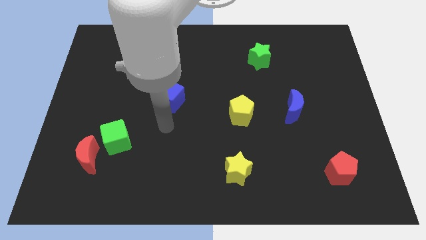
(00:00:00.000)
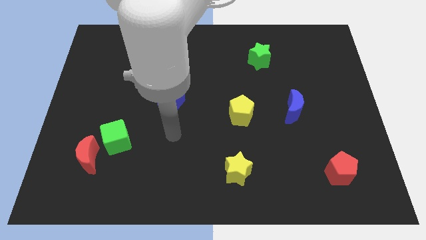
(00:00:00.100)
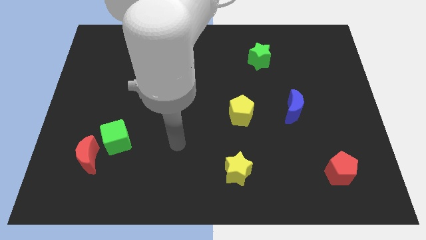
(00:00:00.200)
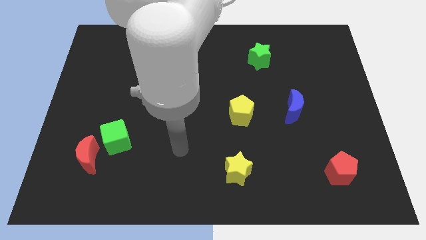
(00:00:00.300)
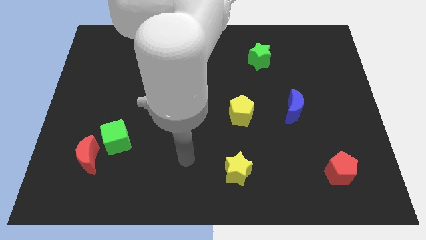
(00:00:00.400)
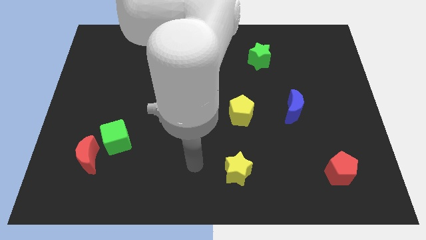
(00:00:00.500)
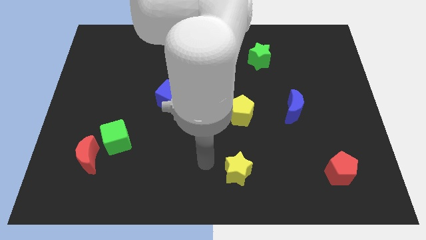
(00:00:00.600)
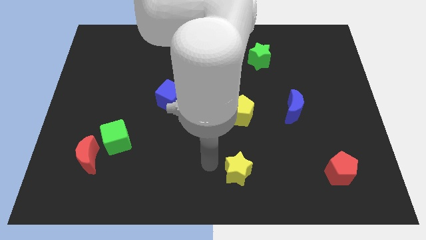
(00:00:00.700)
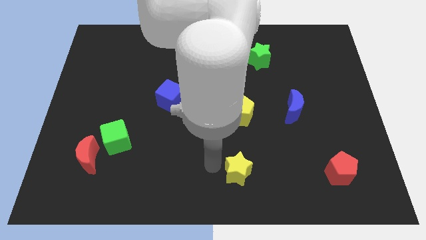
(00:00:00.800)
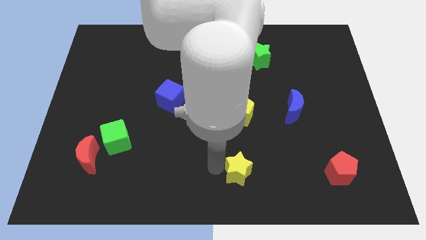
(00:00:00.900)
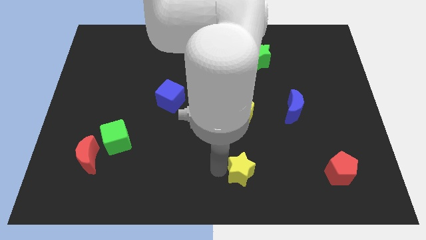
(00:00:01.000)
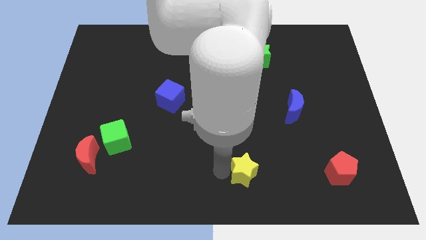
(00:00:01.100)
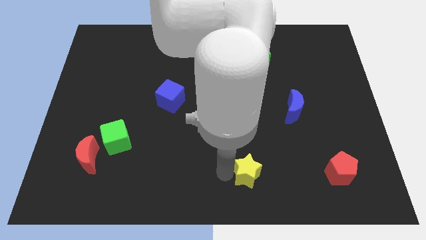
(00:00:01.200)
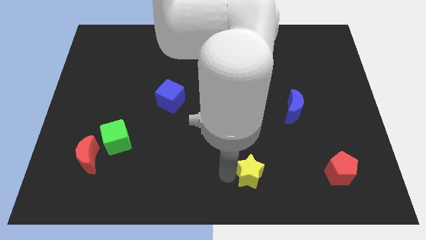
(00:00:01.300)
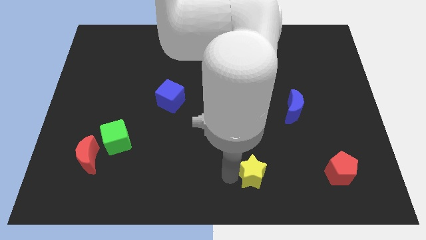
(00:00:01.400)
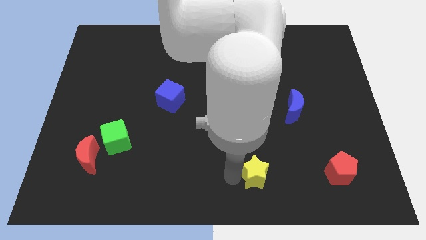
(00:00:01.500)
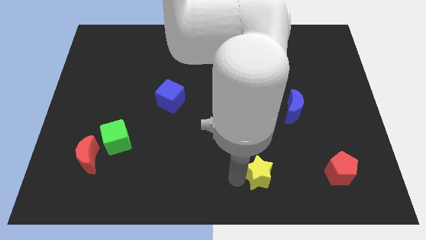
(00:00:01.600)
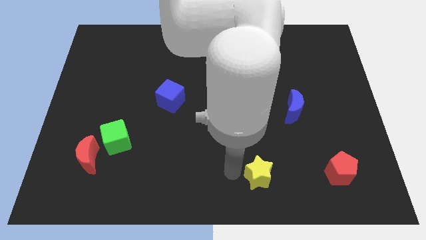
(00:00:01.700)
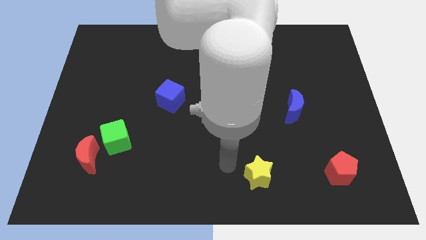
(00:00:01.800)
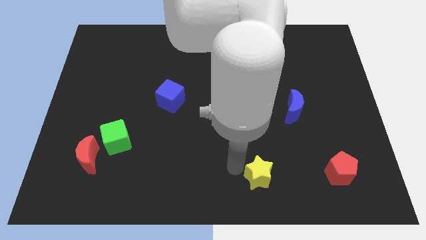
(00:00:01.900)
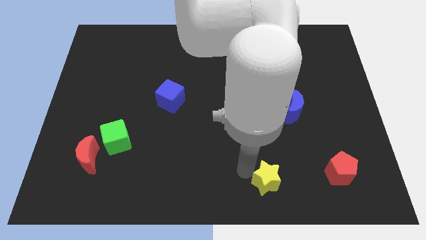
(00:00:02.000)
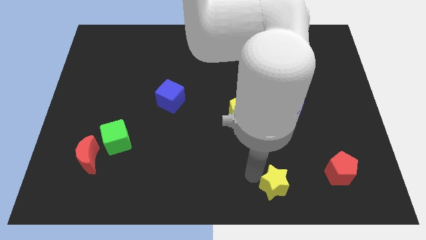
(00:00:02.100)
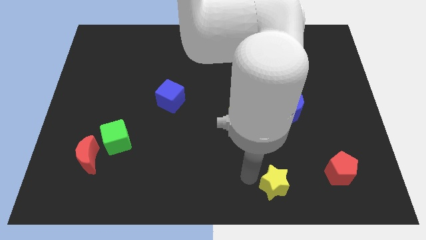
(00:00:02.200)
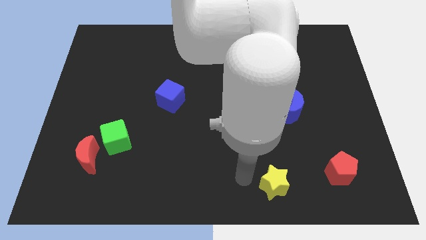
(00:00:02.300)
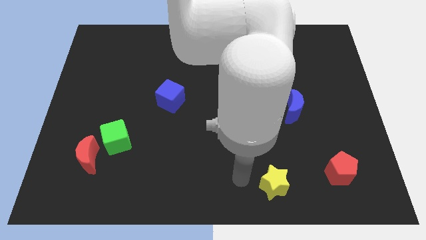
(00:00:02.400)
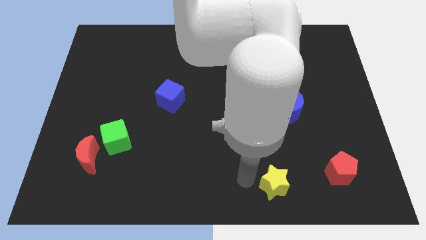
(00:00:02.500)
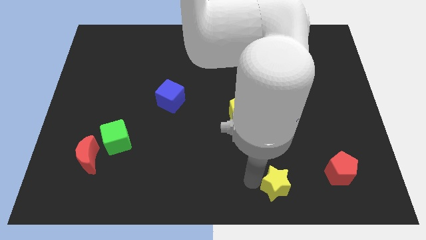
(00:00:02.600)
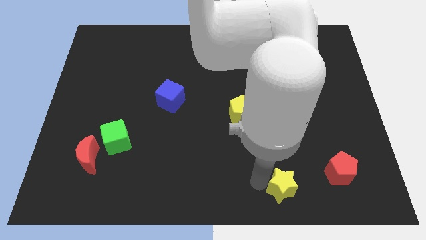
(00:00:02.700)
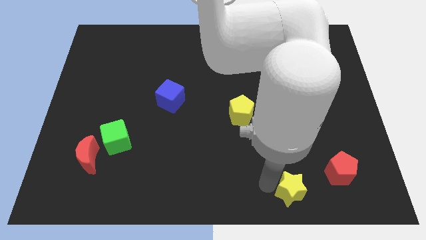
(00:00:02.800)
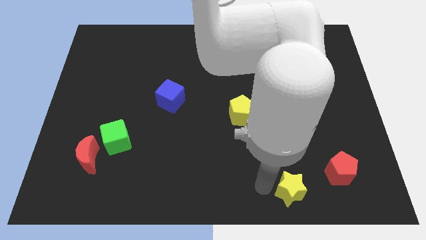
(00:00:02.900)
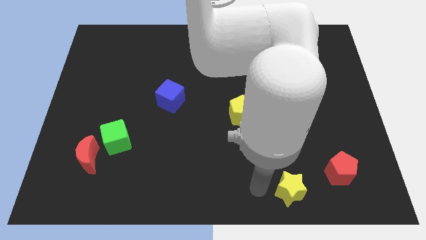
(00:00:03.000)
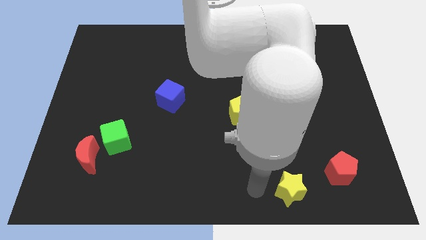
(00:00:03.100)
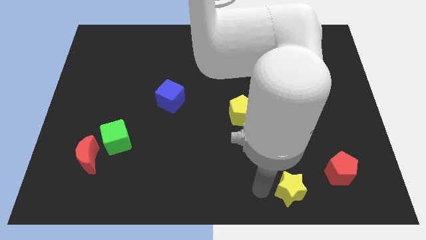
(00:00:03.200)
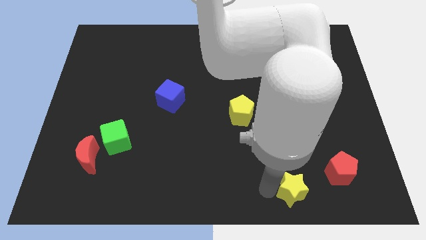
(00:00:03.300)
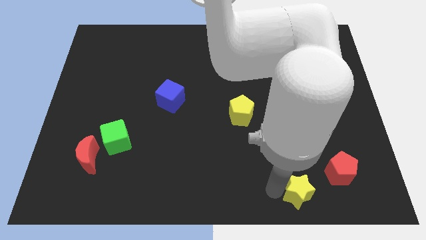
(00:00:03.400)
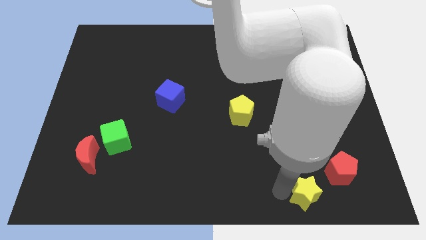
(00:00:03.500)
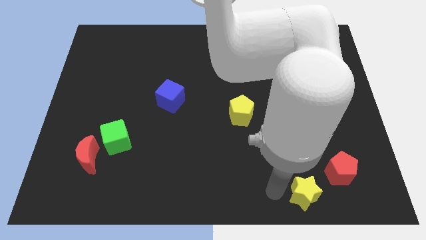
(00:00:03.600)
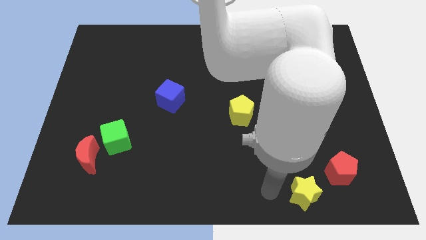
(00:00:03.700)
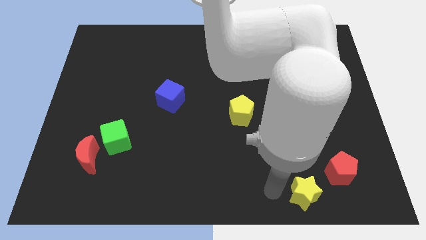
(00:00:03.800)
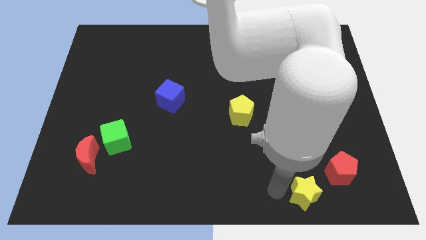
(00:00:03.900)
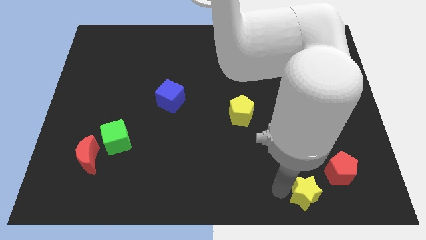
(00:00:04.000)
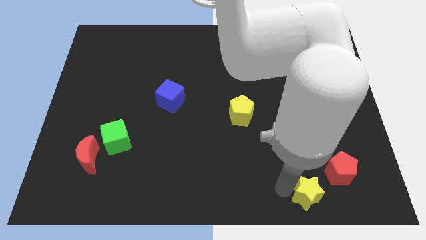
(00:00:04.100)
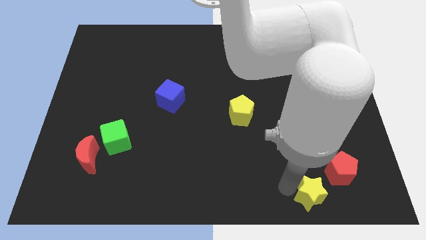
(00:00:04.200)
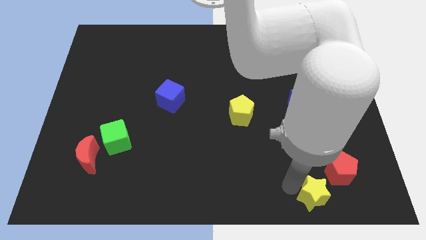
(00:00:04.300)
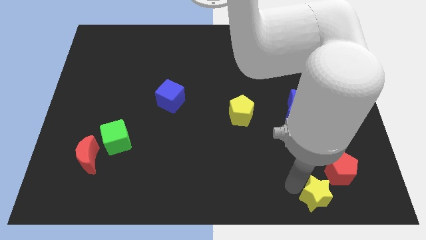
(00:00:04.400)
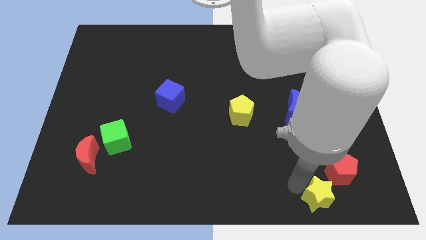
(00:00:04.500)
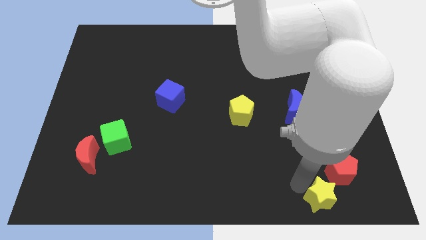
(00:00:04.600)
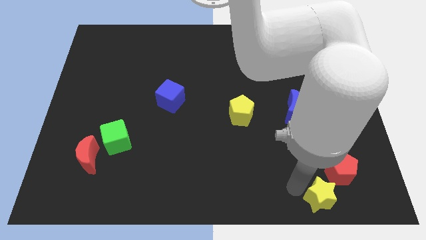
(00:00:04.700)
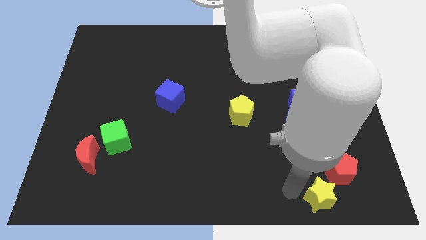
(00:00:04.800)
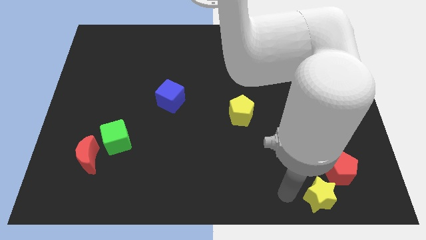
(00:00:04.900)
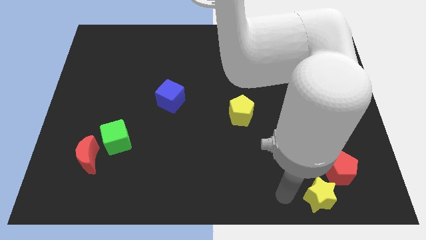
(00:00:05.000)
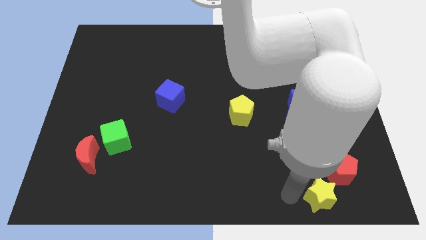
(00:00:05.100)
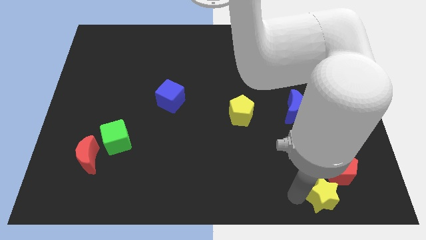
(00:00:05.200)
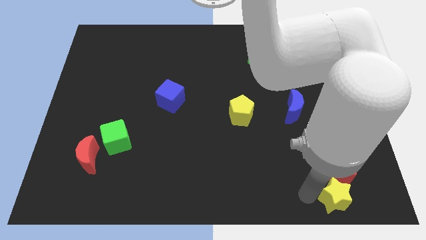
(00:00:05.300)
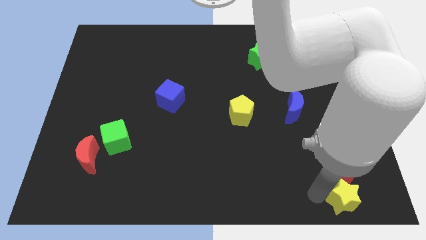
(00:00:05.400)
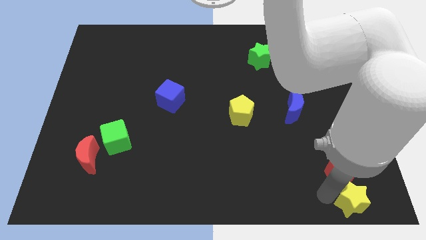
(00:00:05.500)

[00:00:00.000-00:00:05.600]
move the yellow star to the bottom right of the board

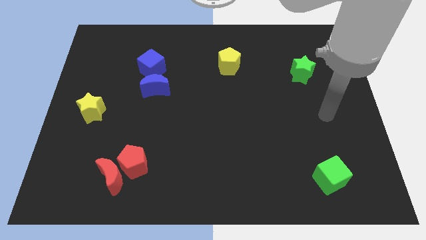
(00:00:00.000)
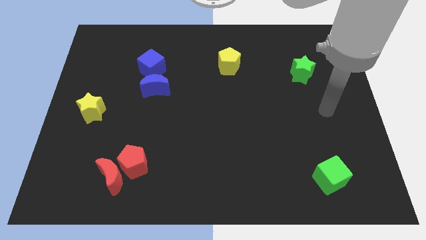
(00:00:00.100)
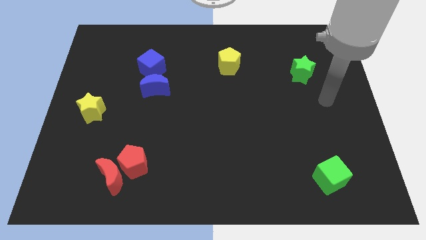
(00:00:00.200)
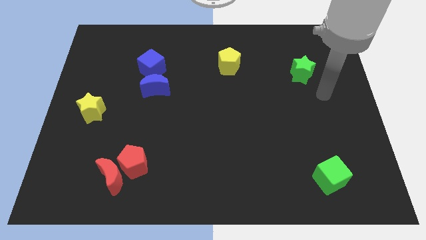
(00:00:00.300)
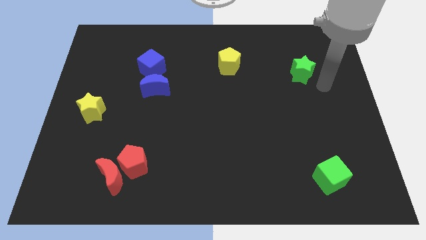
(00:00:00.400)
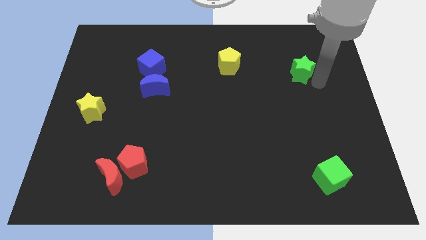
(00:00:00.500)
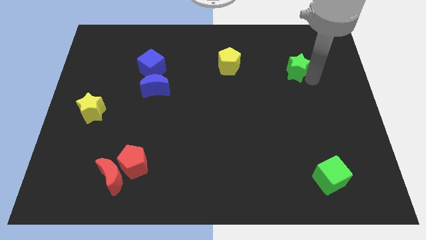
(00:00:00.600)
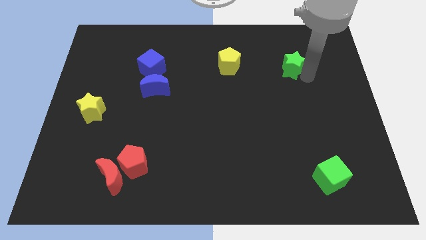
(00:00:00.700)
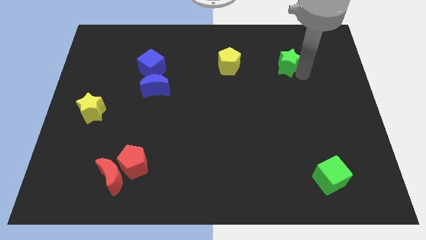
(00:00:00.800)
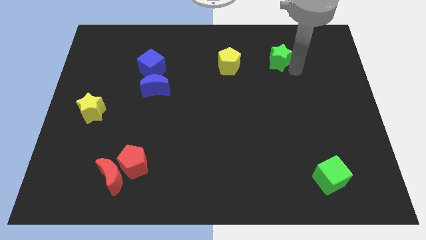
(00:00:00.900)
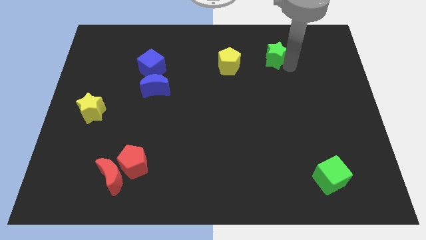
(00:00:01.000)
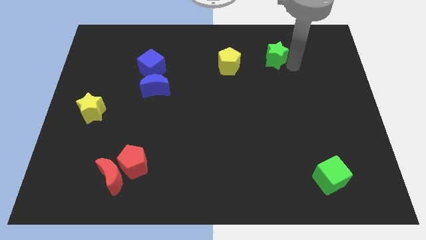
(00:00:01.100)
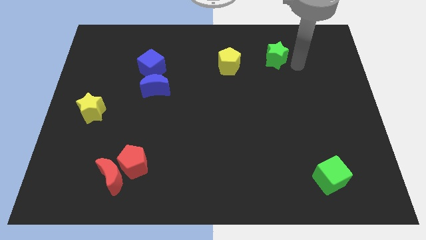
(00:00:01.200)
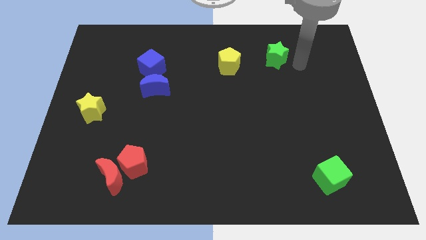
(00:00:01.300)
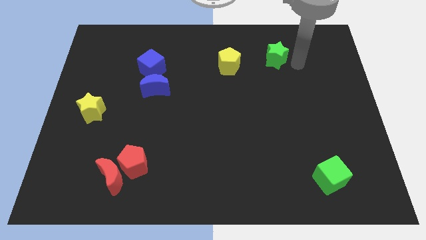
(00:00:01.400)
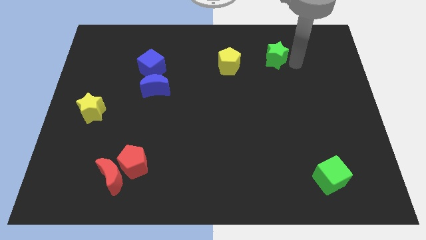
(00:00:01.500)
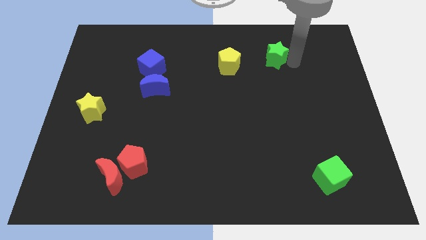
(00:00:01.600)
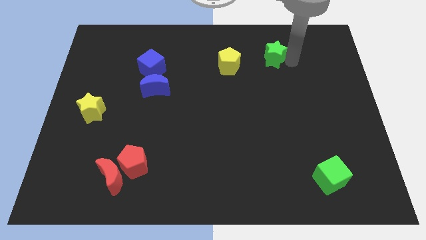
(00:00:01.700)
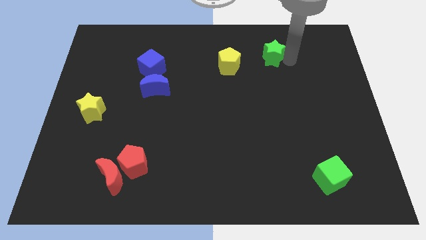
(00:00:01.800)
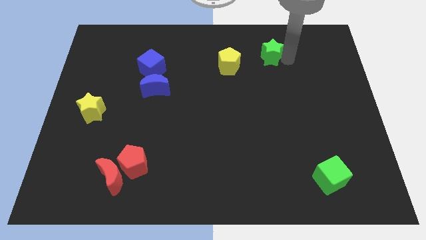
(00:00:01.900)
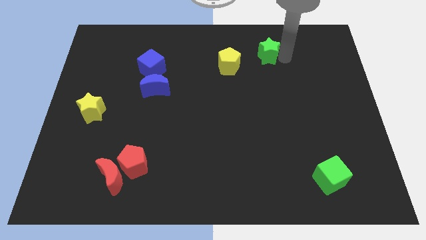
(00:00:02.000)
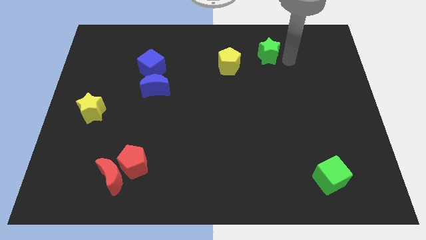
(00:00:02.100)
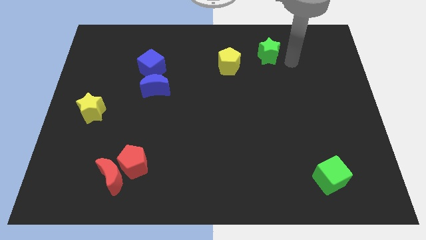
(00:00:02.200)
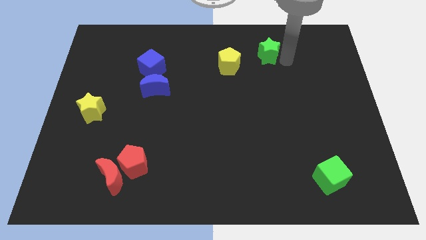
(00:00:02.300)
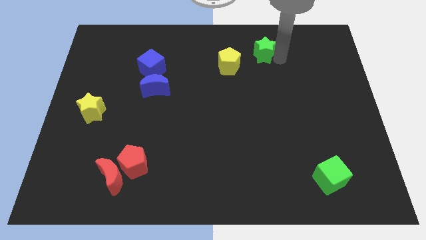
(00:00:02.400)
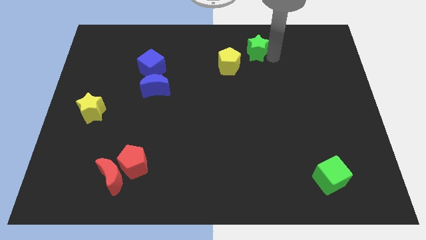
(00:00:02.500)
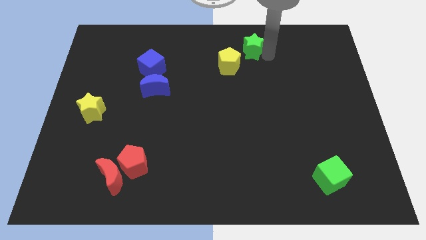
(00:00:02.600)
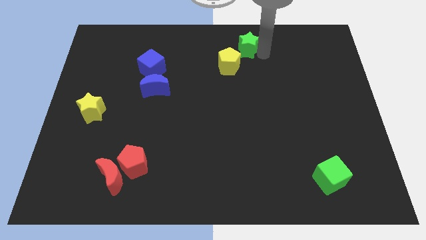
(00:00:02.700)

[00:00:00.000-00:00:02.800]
push the green star to the top
